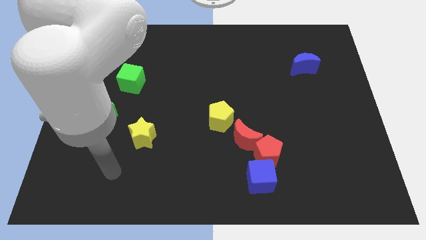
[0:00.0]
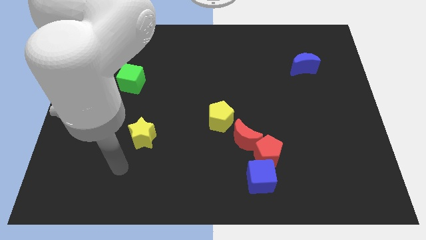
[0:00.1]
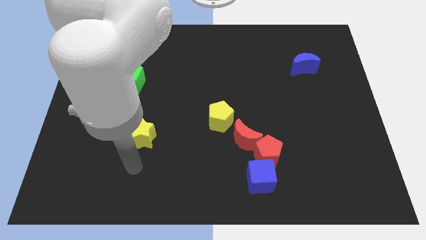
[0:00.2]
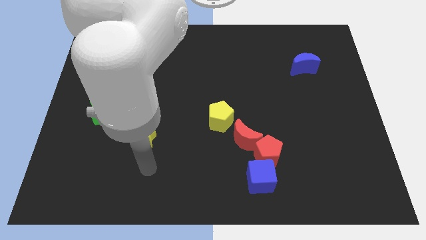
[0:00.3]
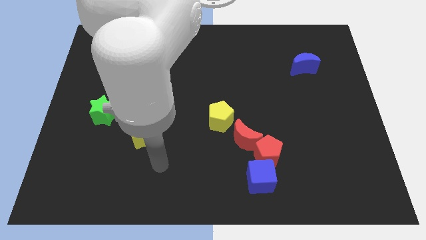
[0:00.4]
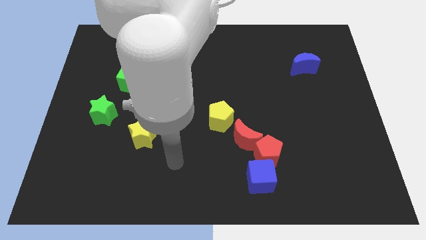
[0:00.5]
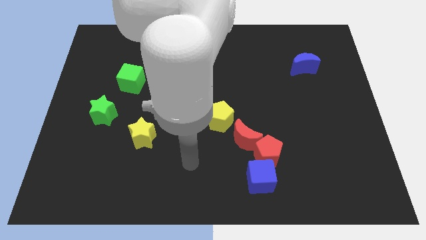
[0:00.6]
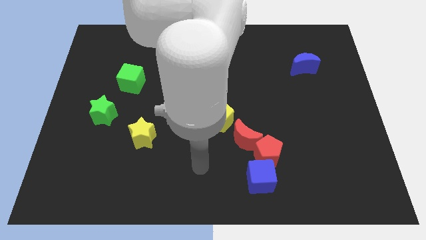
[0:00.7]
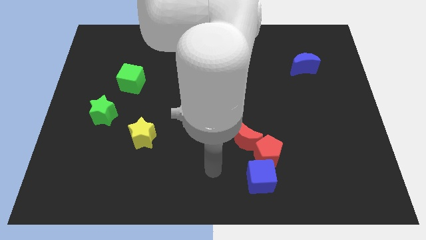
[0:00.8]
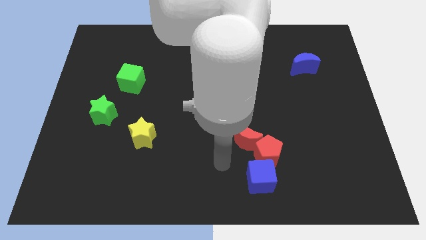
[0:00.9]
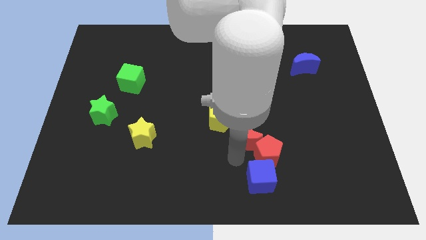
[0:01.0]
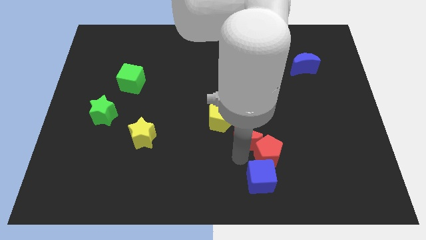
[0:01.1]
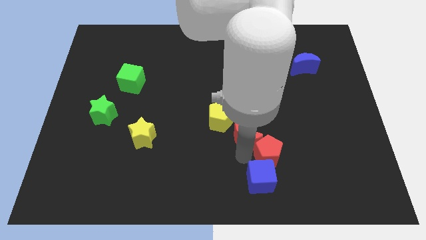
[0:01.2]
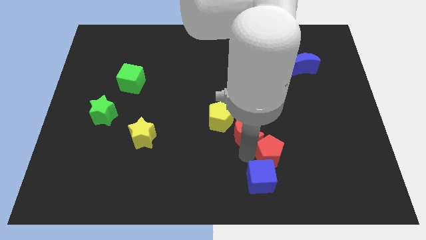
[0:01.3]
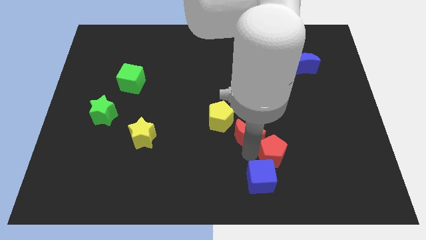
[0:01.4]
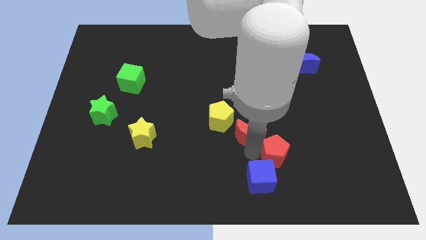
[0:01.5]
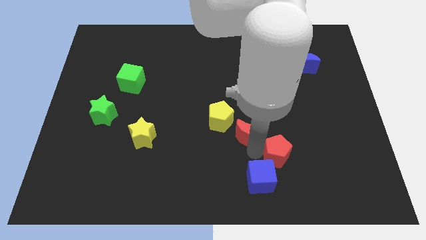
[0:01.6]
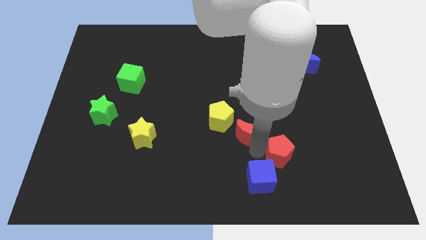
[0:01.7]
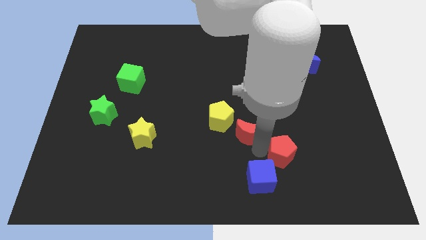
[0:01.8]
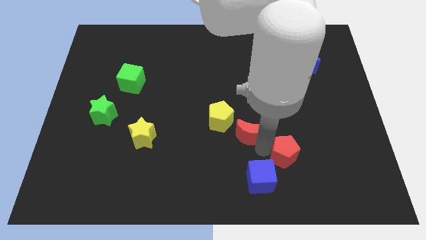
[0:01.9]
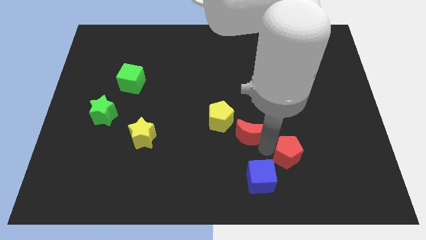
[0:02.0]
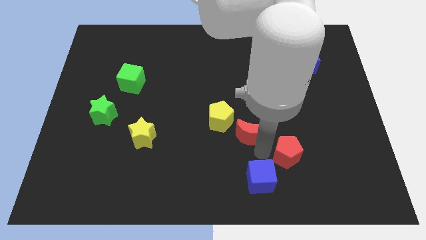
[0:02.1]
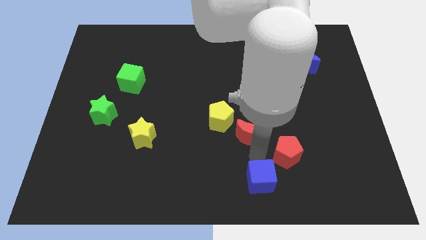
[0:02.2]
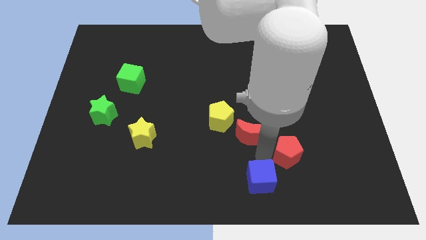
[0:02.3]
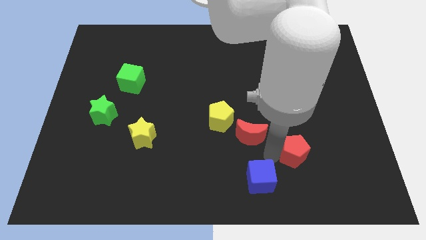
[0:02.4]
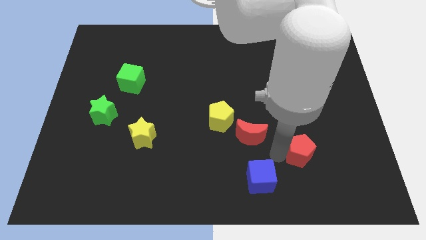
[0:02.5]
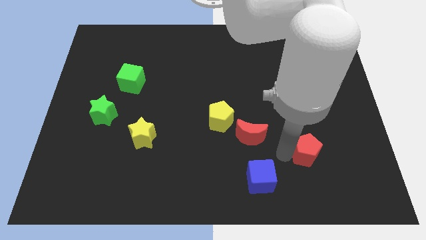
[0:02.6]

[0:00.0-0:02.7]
pull the red pentagon apart from the red moon and blue cube

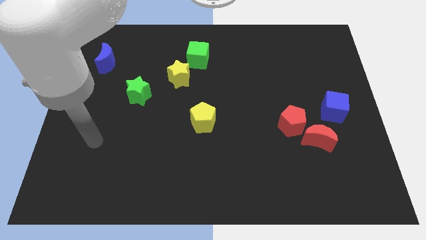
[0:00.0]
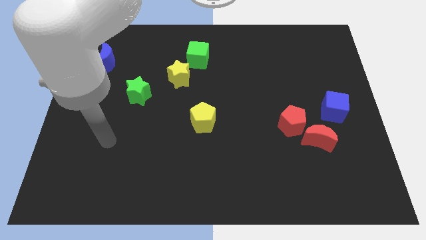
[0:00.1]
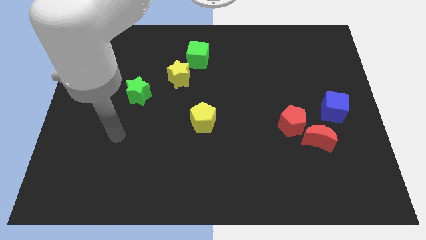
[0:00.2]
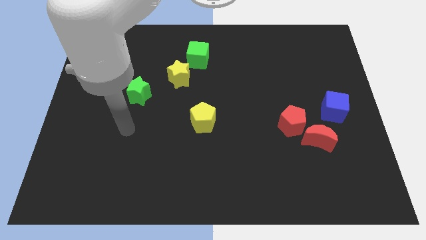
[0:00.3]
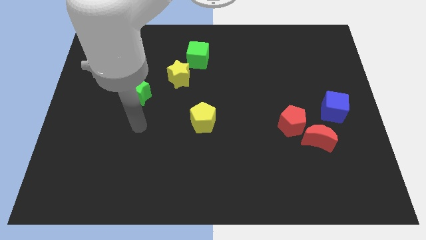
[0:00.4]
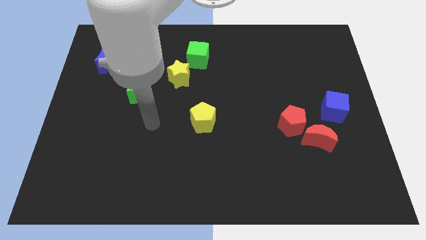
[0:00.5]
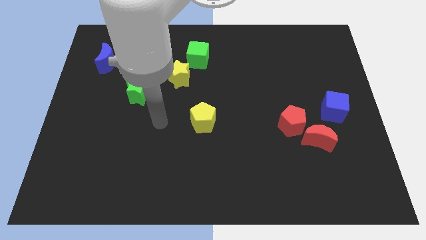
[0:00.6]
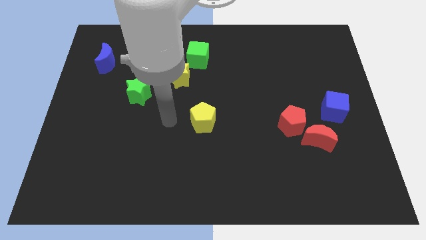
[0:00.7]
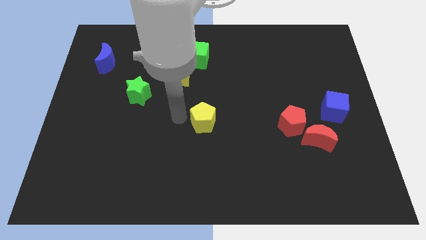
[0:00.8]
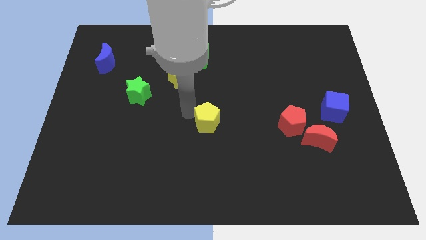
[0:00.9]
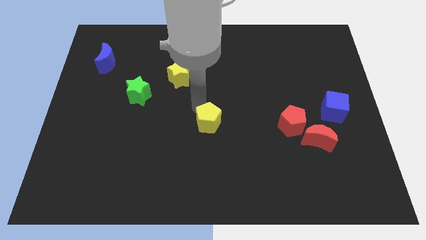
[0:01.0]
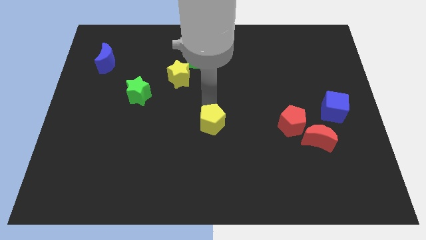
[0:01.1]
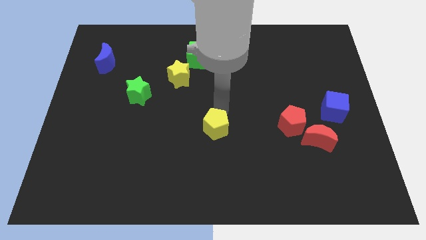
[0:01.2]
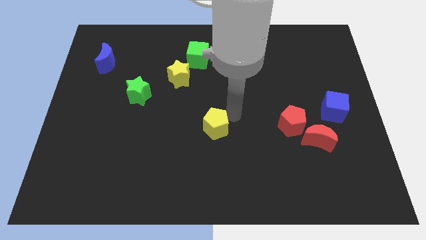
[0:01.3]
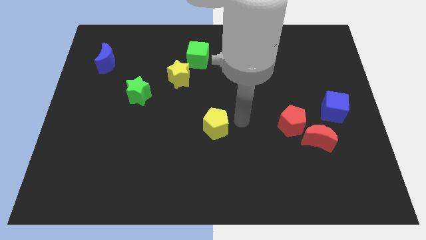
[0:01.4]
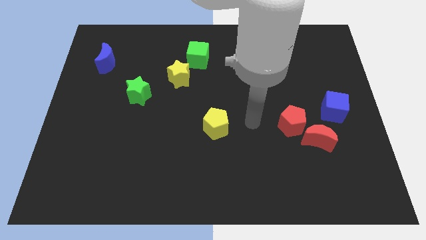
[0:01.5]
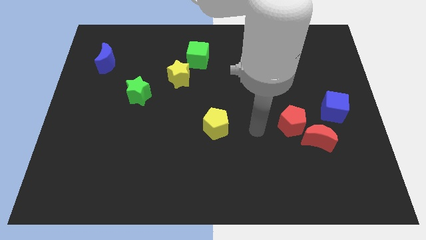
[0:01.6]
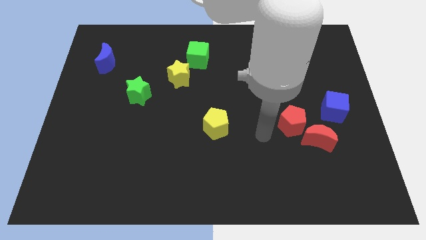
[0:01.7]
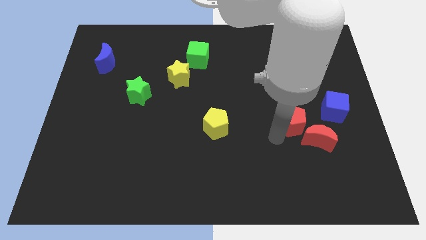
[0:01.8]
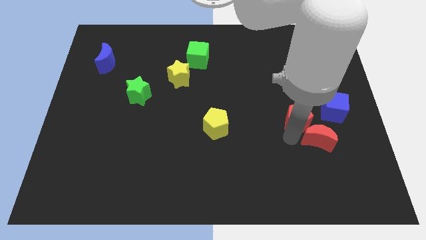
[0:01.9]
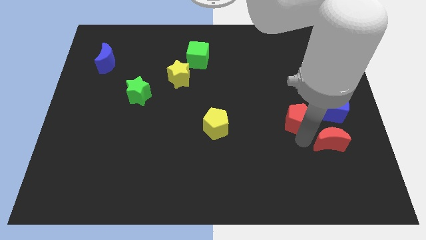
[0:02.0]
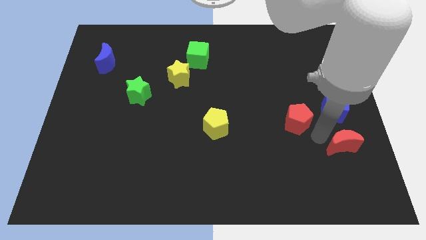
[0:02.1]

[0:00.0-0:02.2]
move the red pentagon away from the red moon

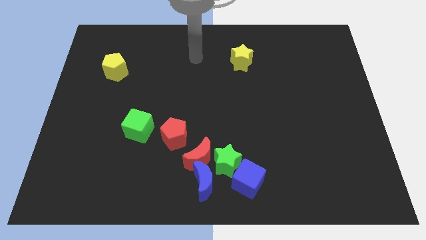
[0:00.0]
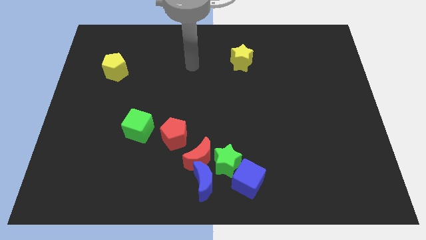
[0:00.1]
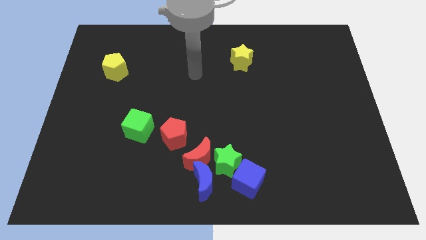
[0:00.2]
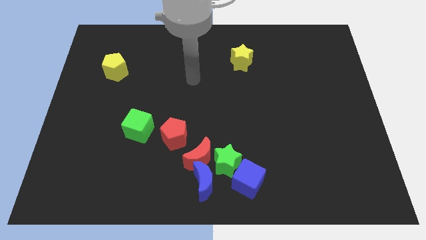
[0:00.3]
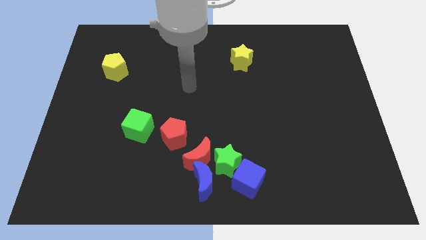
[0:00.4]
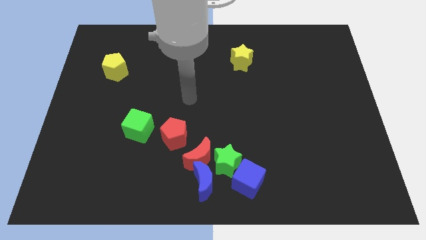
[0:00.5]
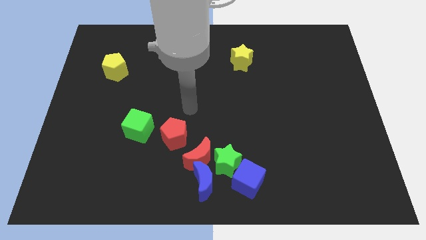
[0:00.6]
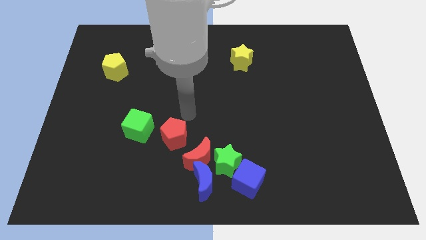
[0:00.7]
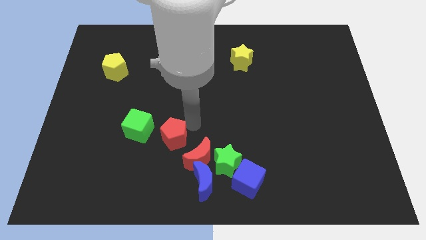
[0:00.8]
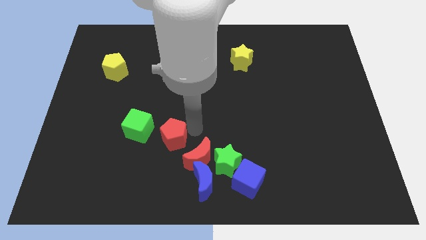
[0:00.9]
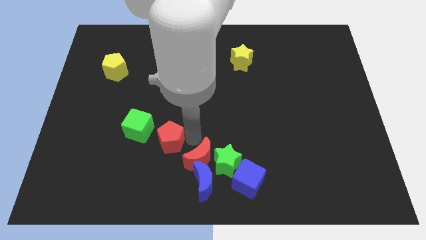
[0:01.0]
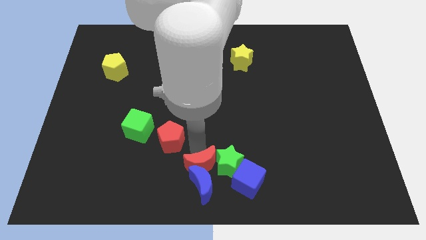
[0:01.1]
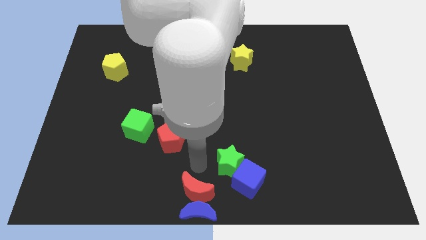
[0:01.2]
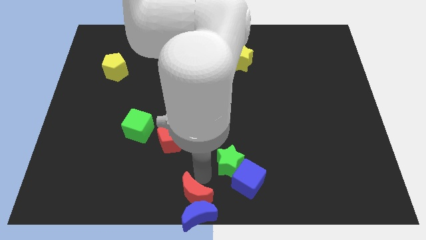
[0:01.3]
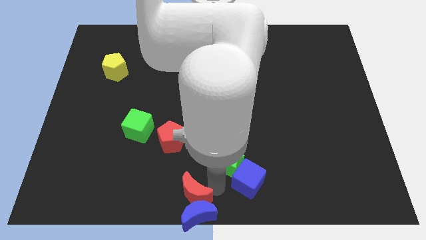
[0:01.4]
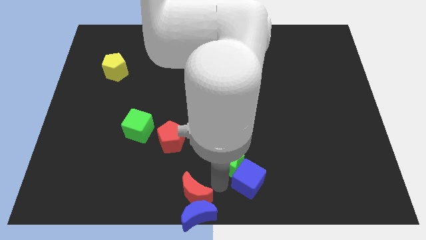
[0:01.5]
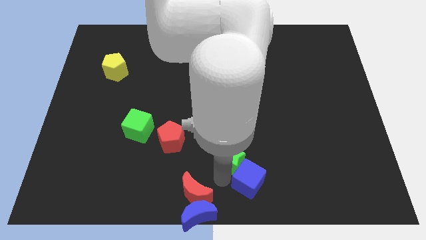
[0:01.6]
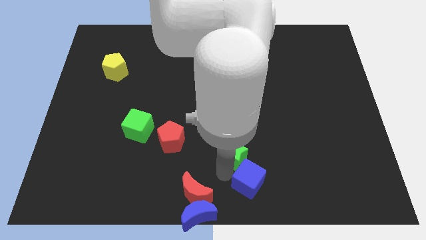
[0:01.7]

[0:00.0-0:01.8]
move the green star away from the group

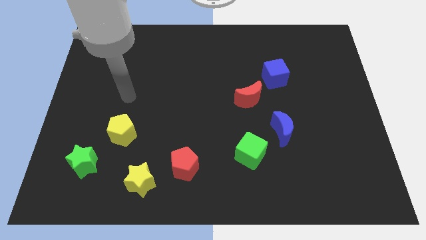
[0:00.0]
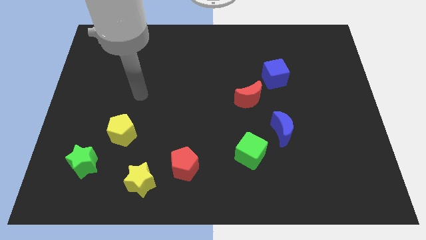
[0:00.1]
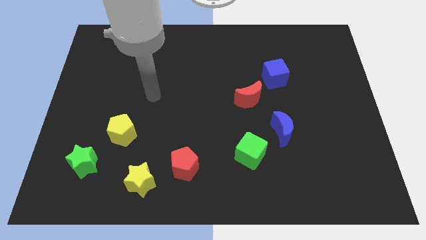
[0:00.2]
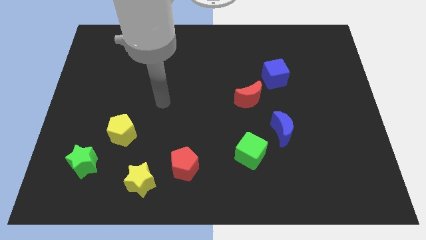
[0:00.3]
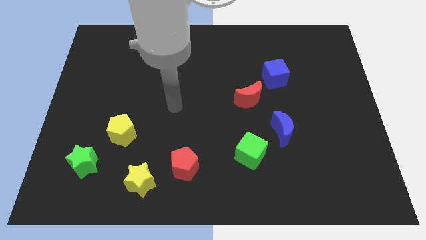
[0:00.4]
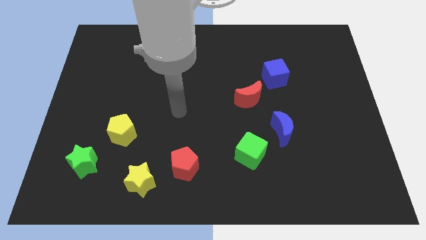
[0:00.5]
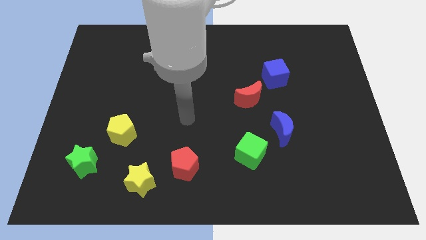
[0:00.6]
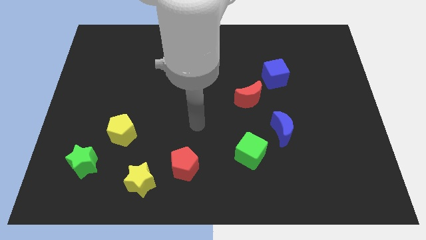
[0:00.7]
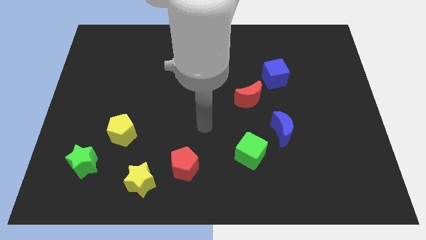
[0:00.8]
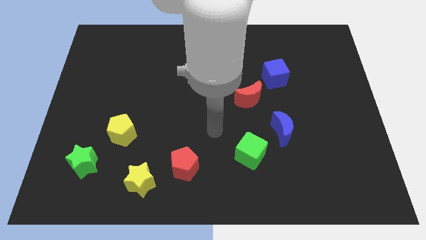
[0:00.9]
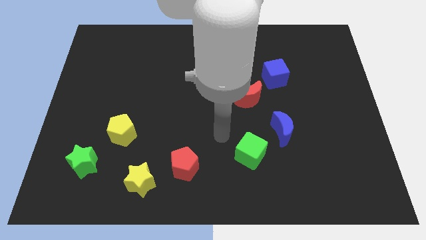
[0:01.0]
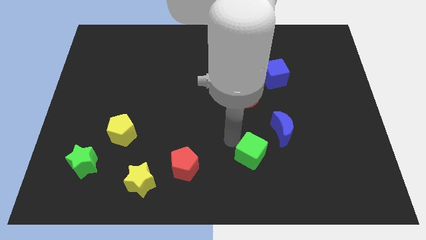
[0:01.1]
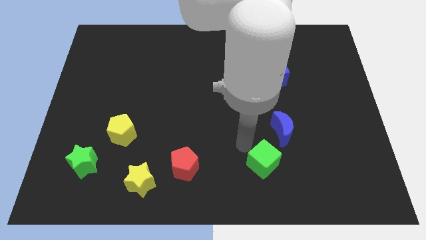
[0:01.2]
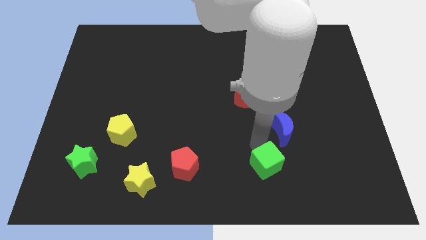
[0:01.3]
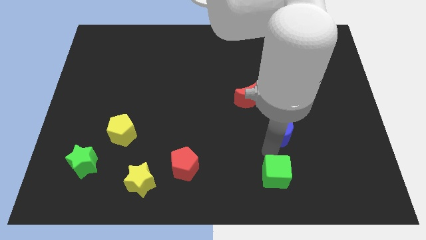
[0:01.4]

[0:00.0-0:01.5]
move the blue moon away from the green cube

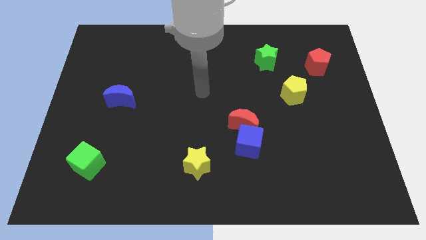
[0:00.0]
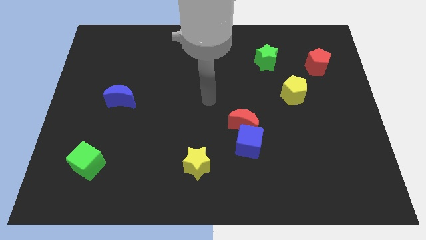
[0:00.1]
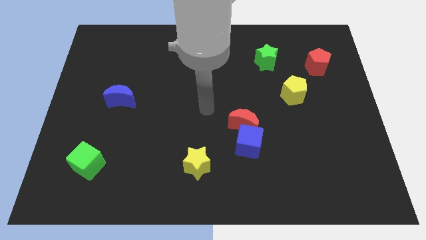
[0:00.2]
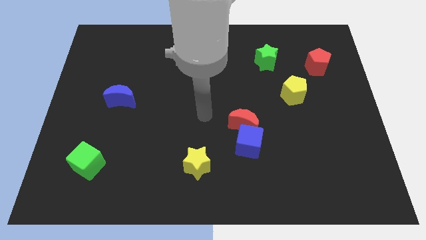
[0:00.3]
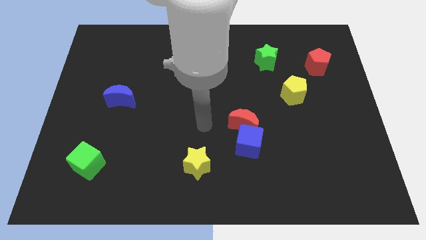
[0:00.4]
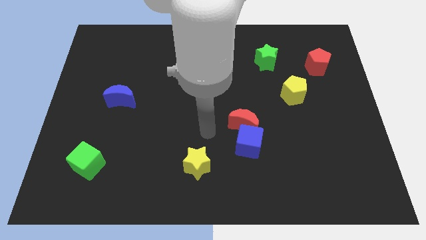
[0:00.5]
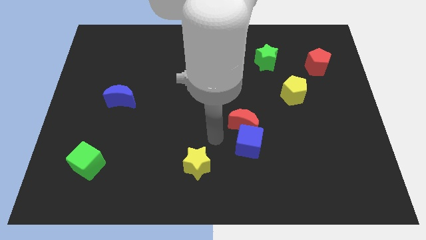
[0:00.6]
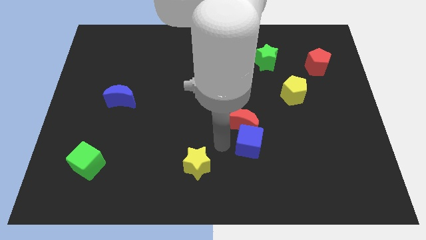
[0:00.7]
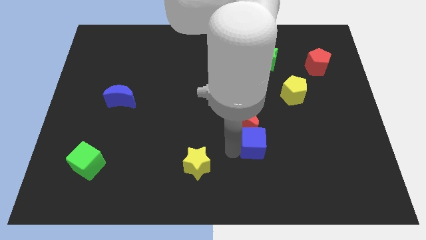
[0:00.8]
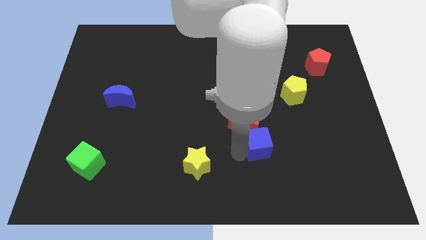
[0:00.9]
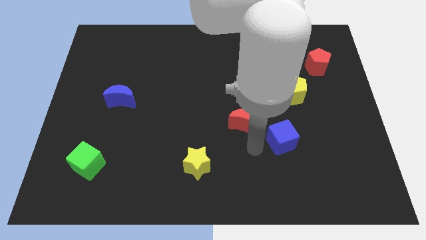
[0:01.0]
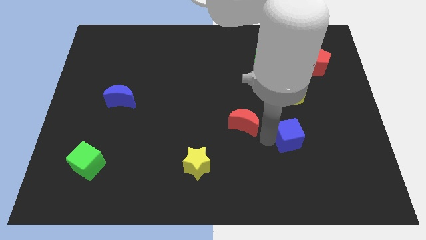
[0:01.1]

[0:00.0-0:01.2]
move the red moon away from the blue cube
